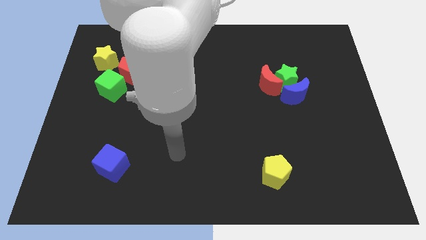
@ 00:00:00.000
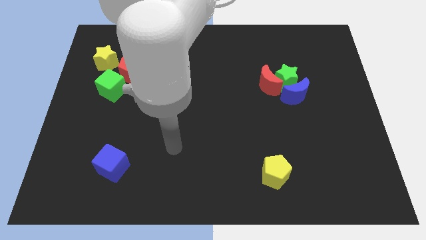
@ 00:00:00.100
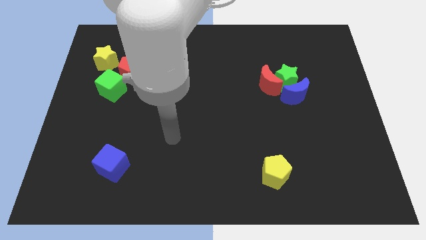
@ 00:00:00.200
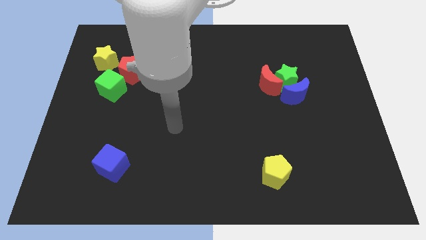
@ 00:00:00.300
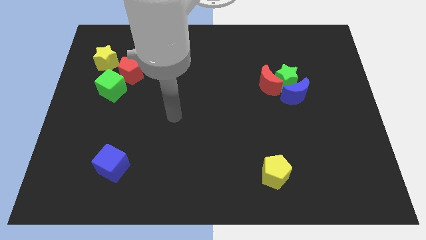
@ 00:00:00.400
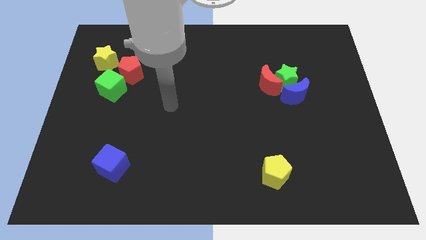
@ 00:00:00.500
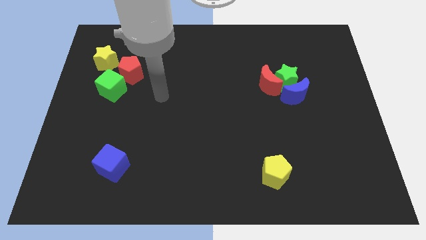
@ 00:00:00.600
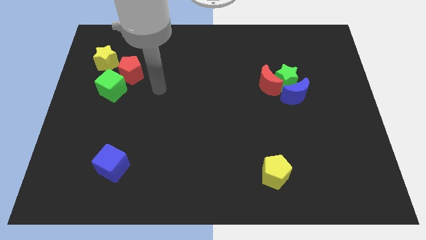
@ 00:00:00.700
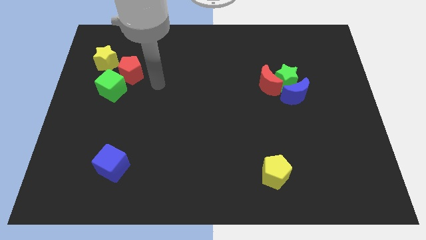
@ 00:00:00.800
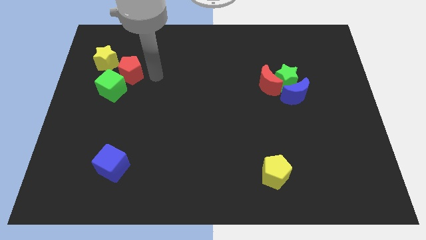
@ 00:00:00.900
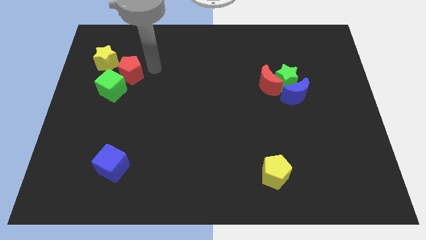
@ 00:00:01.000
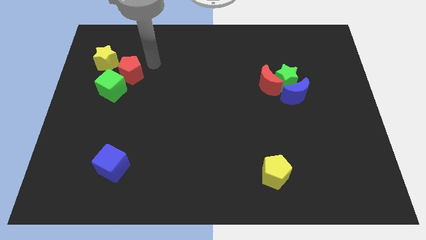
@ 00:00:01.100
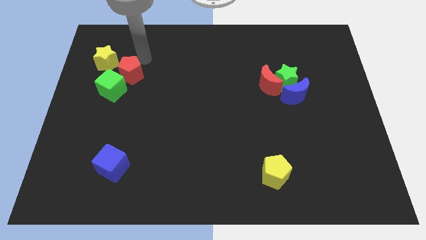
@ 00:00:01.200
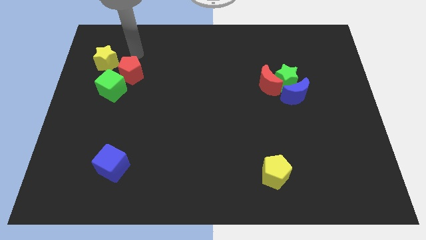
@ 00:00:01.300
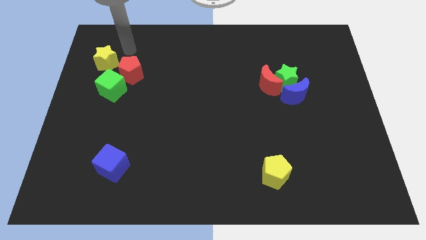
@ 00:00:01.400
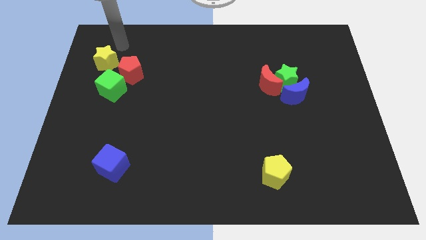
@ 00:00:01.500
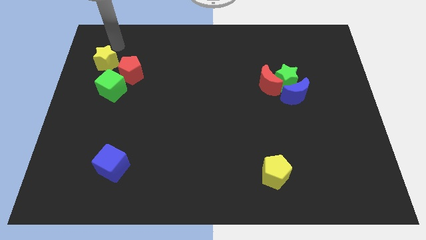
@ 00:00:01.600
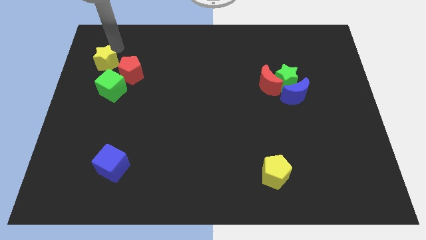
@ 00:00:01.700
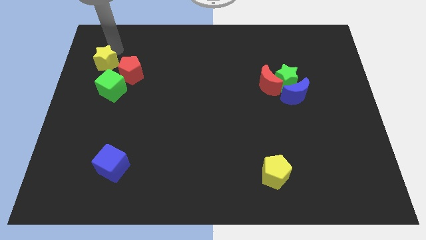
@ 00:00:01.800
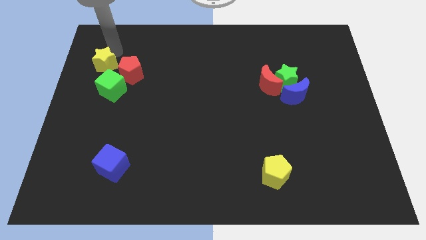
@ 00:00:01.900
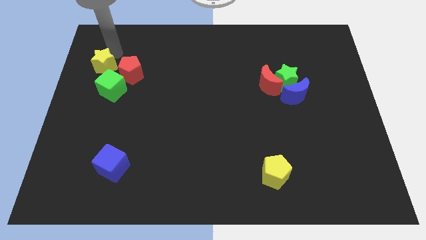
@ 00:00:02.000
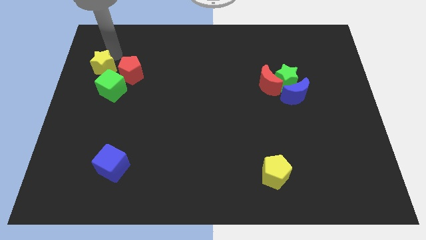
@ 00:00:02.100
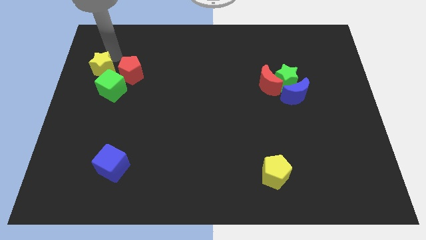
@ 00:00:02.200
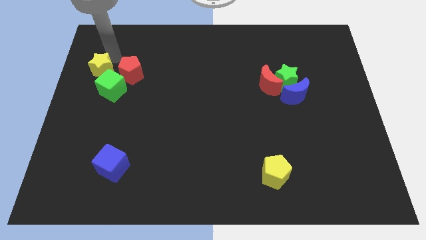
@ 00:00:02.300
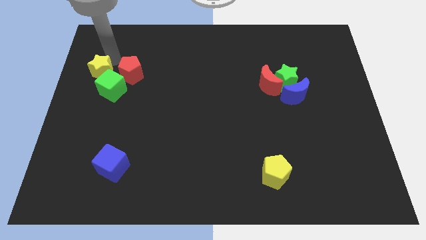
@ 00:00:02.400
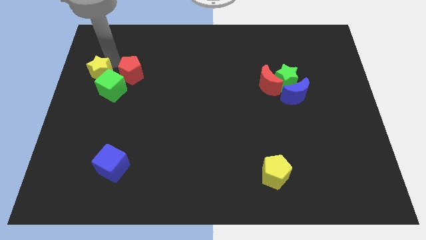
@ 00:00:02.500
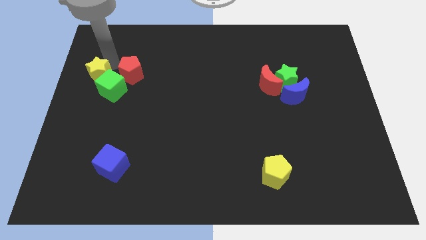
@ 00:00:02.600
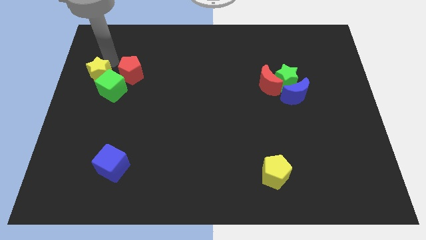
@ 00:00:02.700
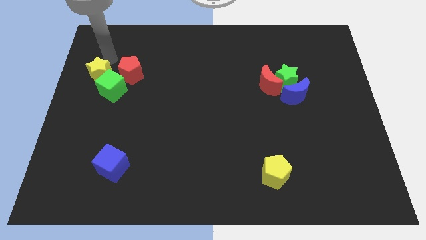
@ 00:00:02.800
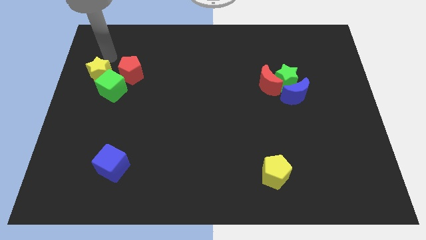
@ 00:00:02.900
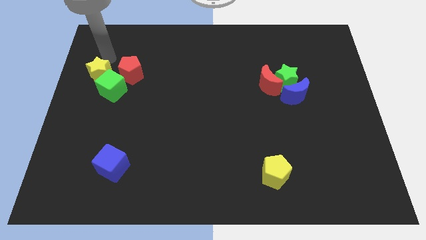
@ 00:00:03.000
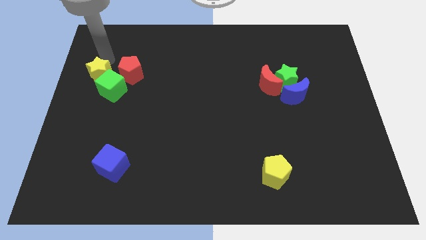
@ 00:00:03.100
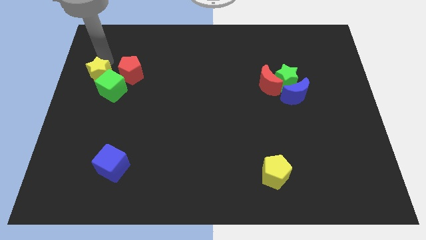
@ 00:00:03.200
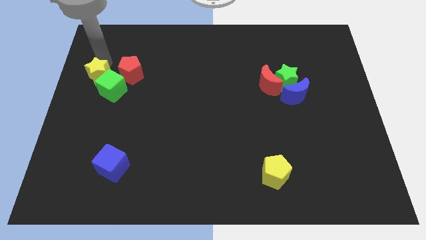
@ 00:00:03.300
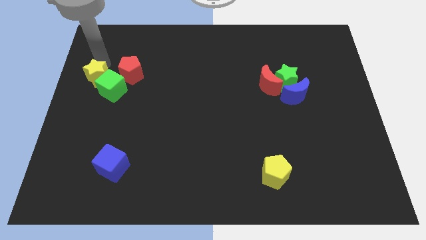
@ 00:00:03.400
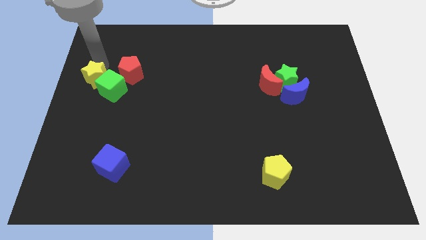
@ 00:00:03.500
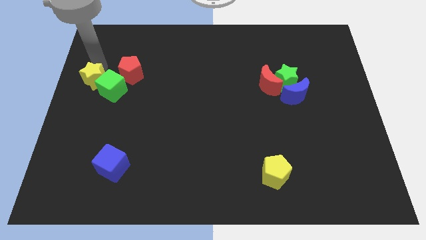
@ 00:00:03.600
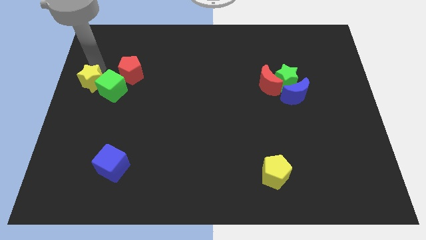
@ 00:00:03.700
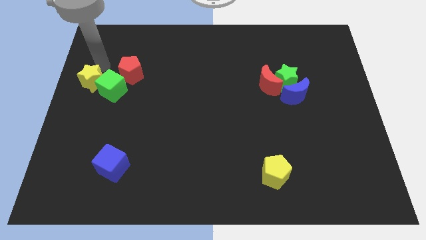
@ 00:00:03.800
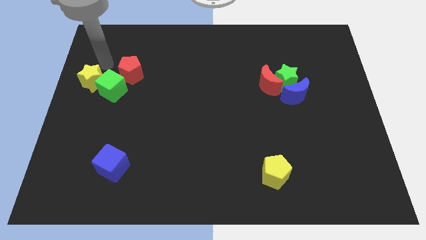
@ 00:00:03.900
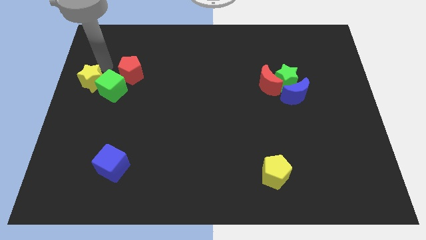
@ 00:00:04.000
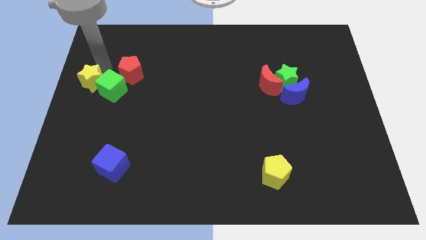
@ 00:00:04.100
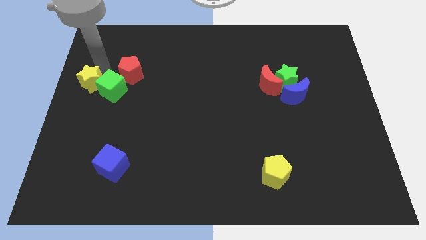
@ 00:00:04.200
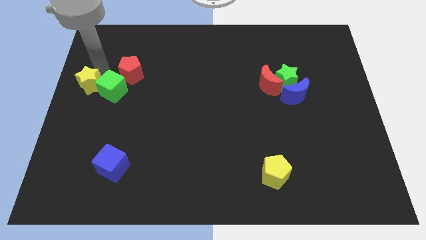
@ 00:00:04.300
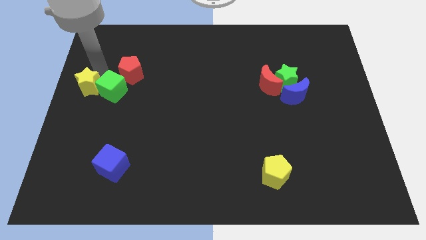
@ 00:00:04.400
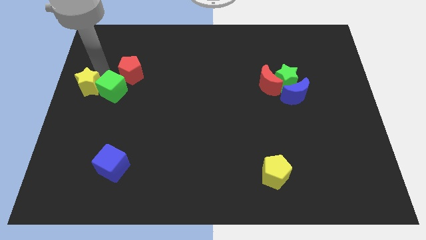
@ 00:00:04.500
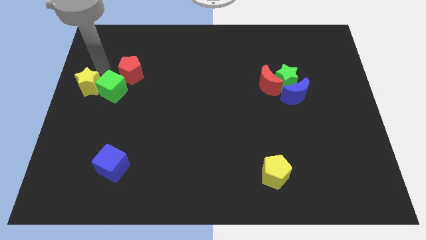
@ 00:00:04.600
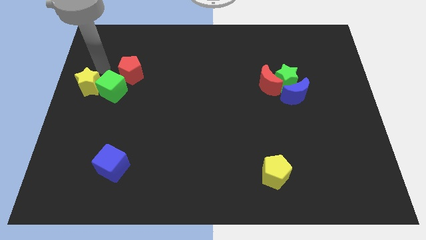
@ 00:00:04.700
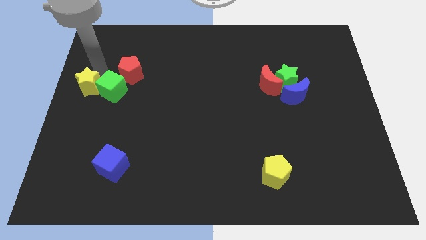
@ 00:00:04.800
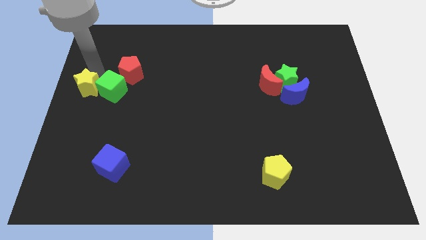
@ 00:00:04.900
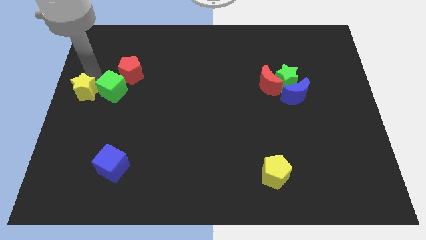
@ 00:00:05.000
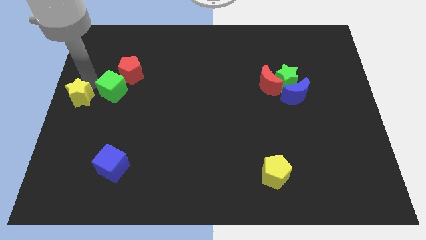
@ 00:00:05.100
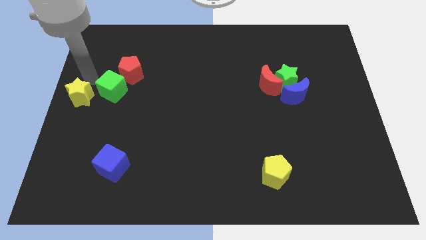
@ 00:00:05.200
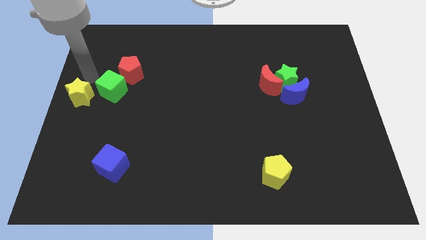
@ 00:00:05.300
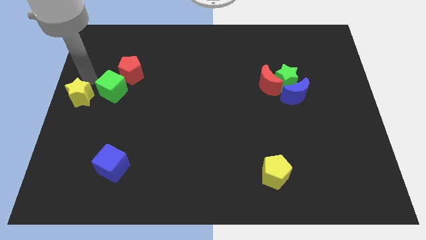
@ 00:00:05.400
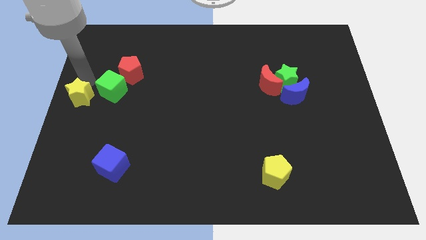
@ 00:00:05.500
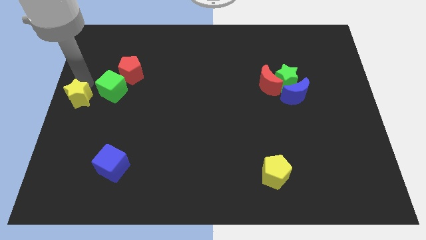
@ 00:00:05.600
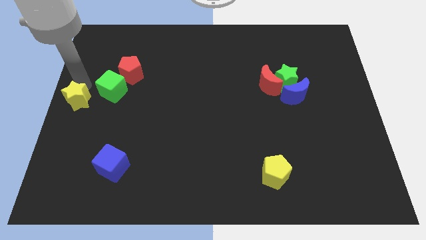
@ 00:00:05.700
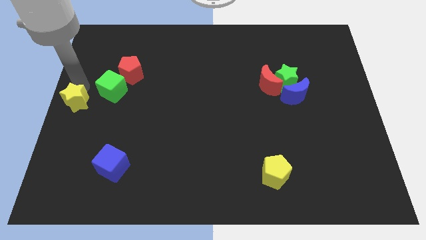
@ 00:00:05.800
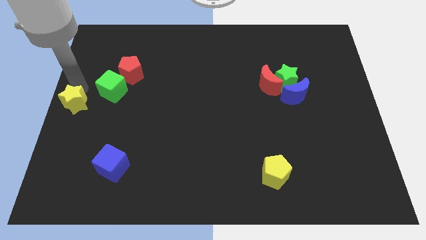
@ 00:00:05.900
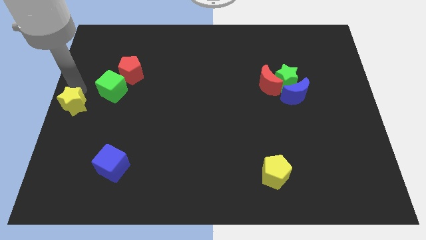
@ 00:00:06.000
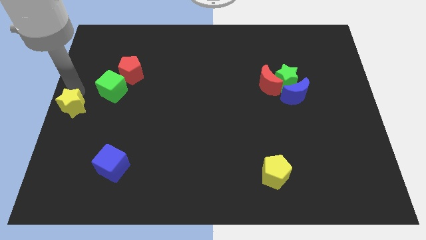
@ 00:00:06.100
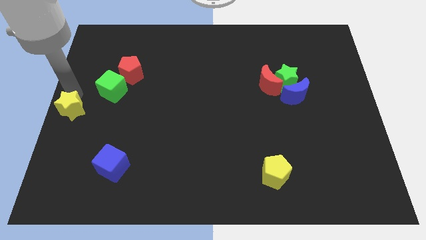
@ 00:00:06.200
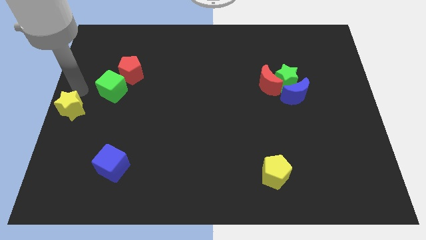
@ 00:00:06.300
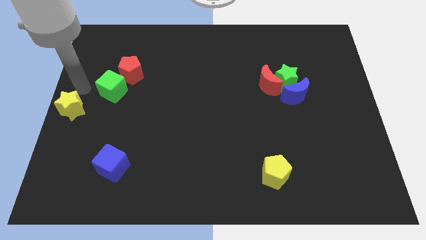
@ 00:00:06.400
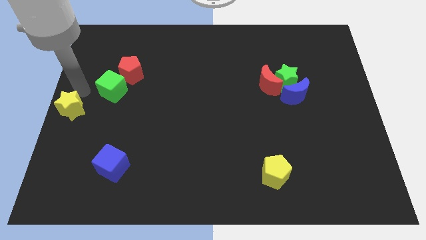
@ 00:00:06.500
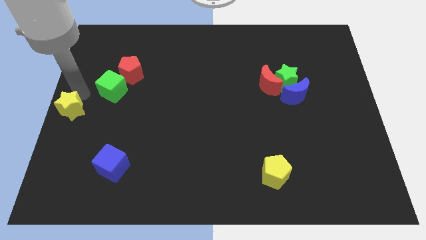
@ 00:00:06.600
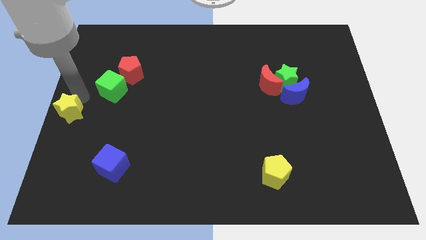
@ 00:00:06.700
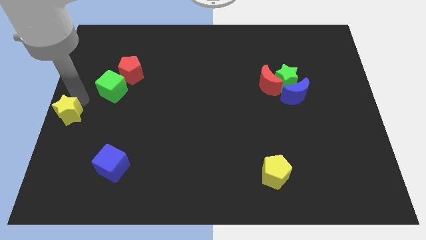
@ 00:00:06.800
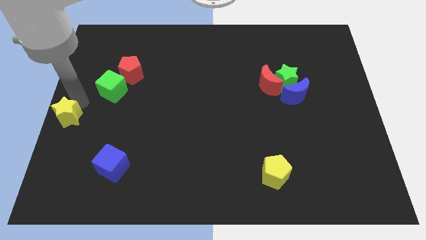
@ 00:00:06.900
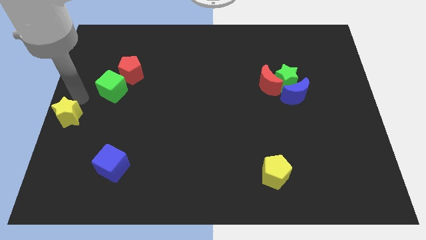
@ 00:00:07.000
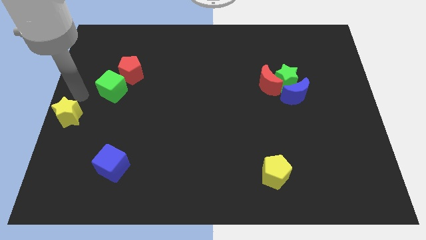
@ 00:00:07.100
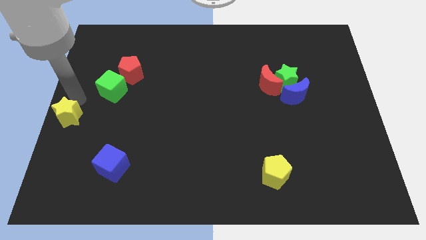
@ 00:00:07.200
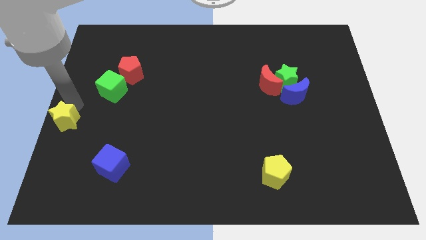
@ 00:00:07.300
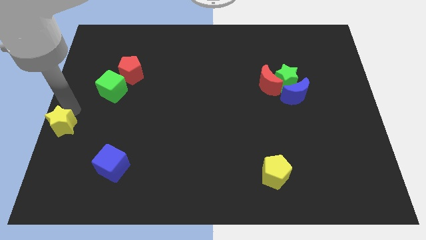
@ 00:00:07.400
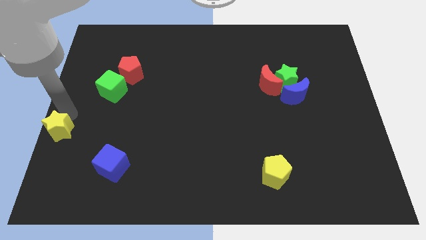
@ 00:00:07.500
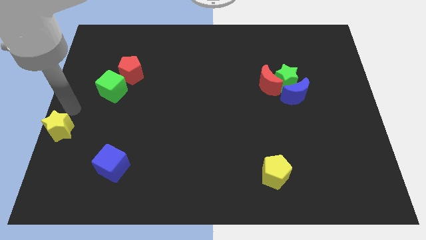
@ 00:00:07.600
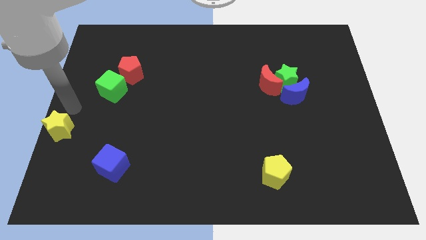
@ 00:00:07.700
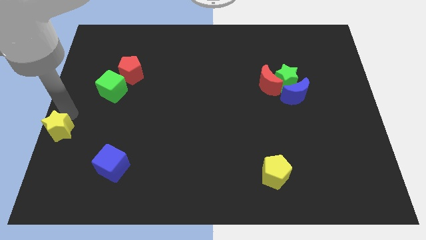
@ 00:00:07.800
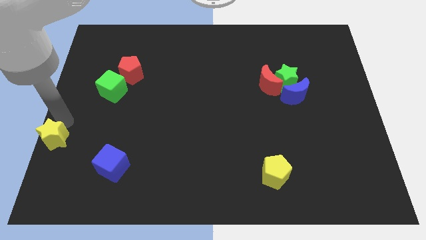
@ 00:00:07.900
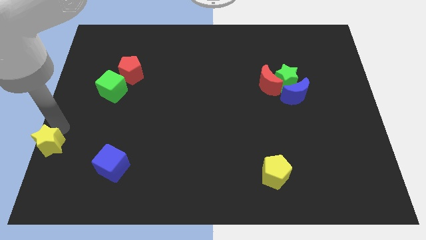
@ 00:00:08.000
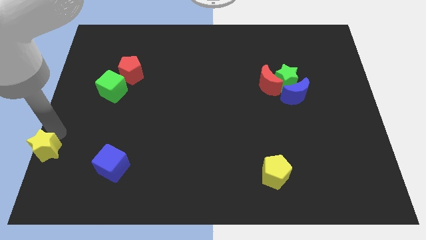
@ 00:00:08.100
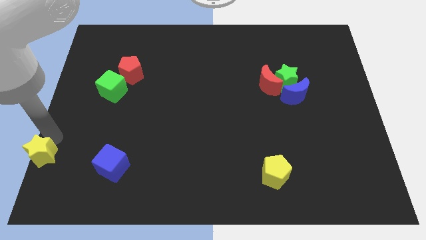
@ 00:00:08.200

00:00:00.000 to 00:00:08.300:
move the yellow star to the bottom left
